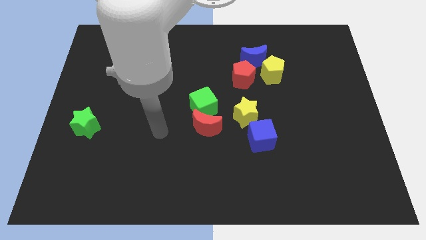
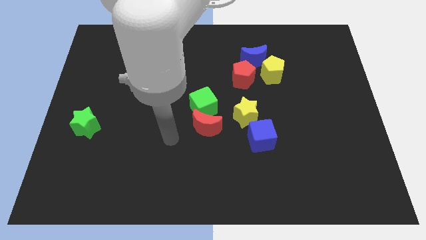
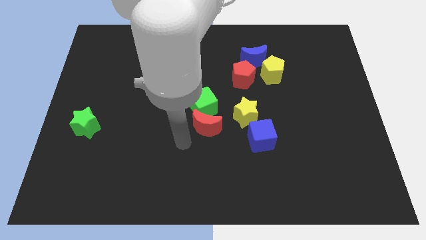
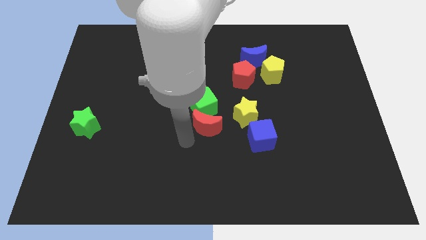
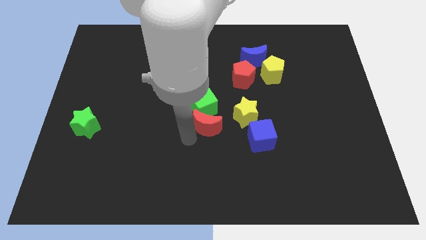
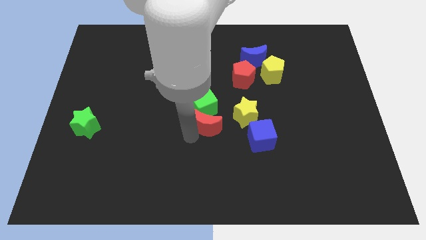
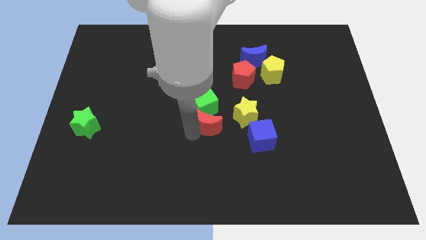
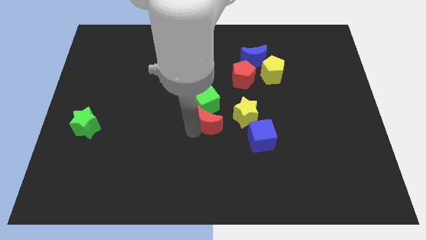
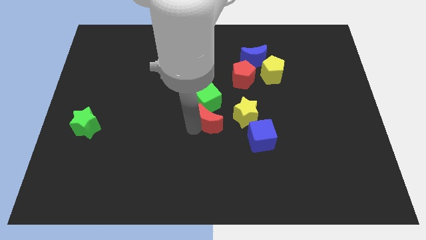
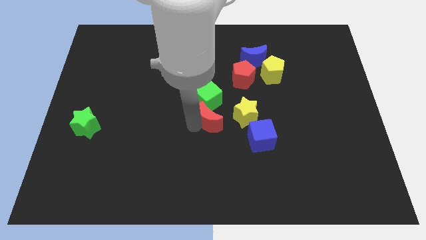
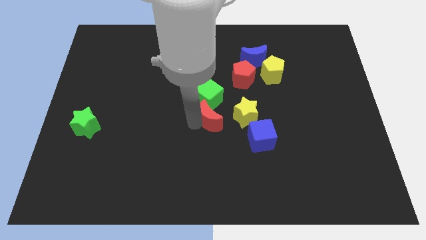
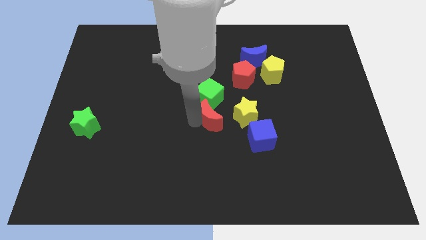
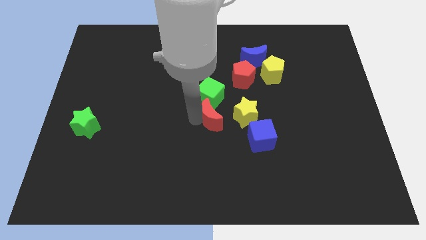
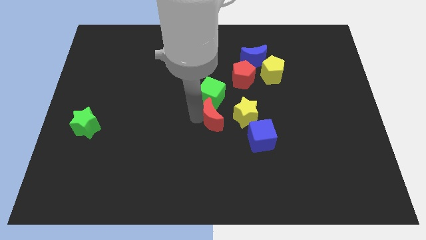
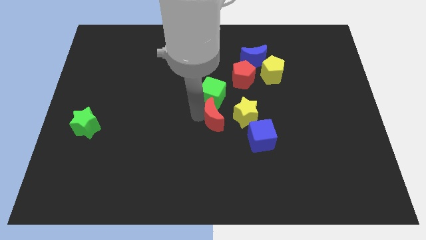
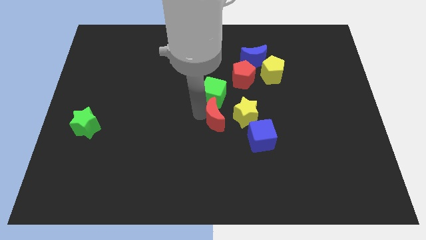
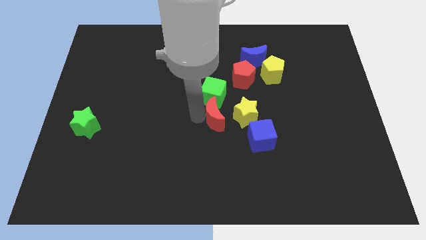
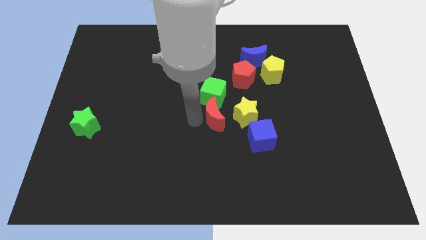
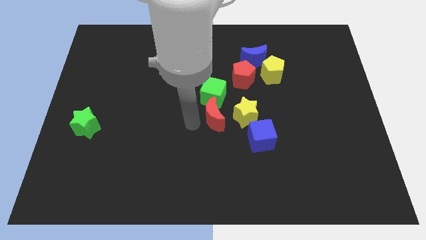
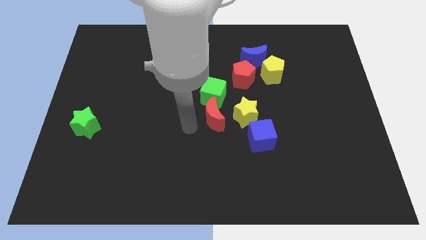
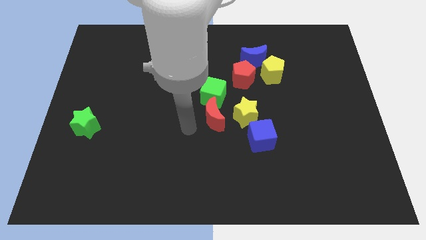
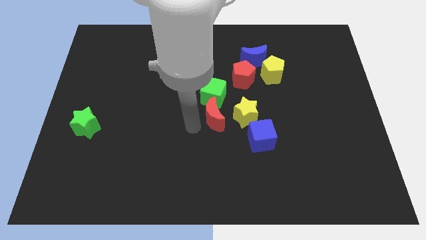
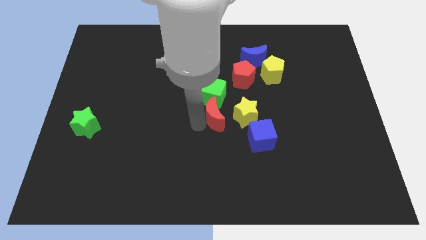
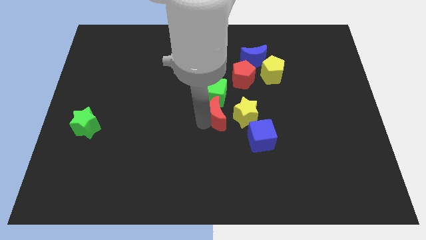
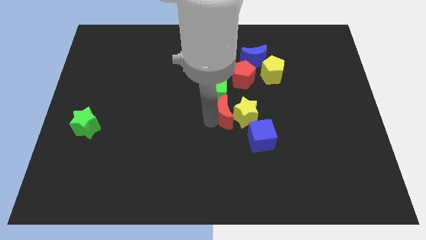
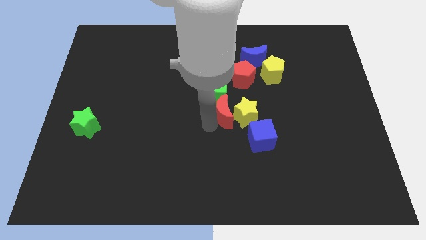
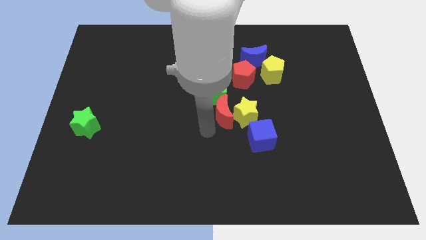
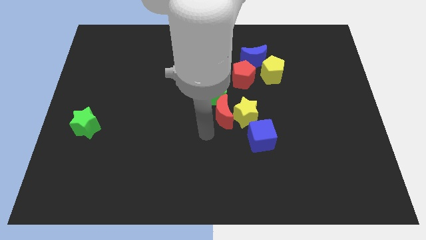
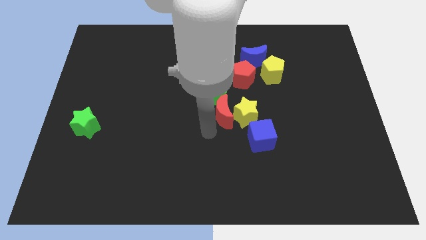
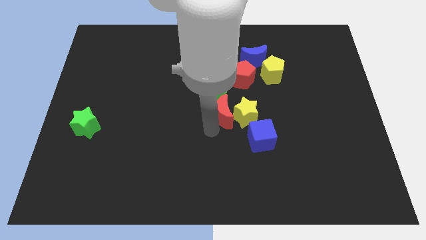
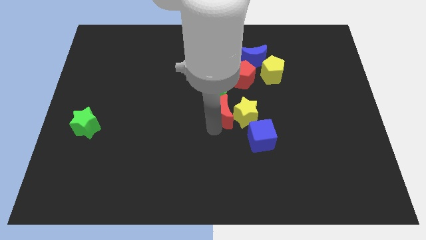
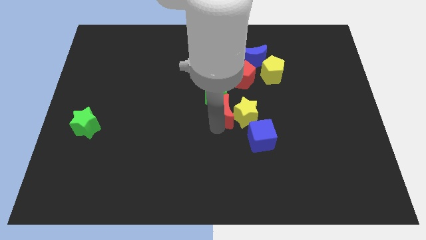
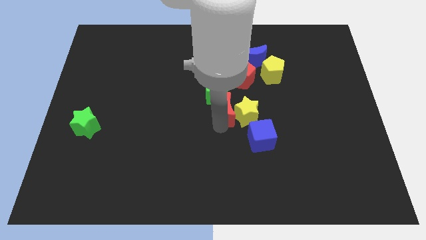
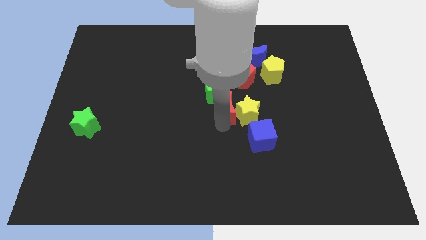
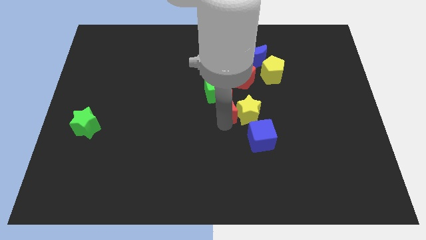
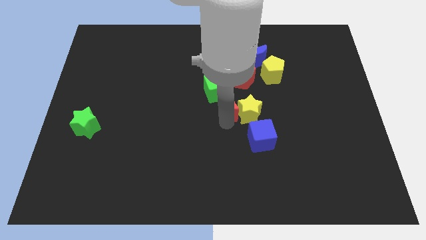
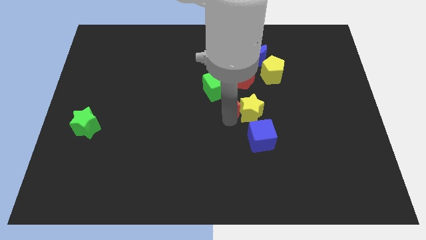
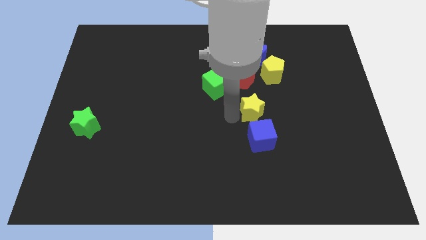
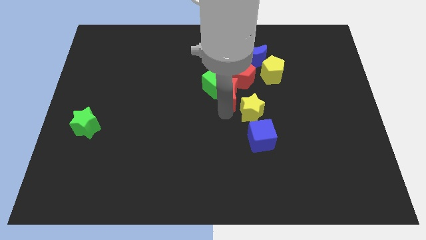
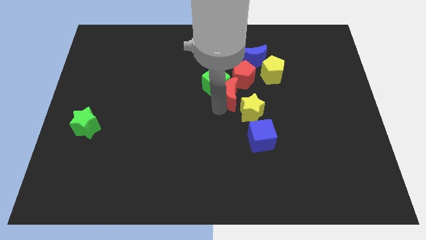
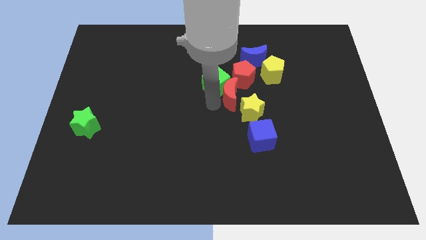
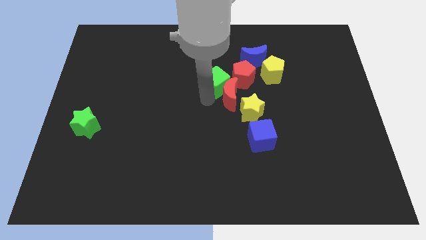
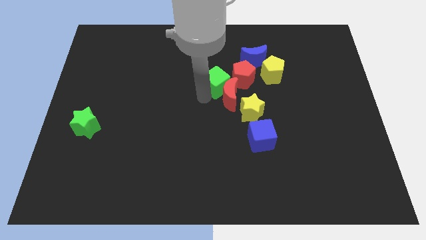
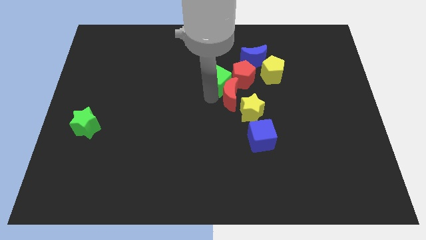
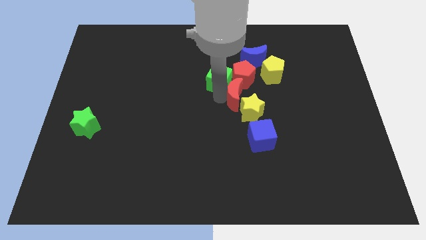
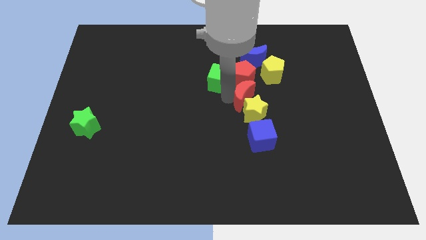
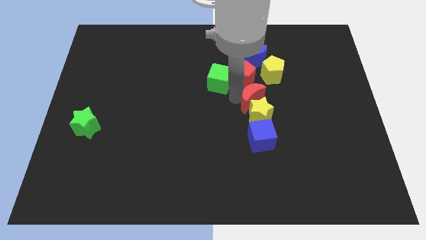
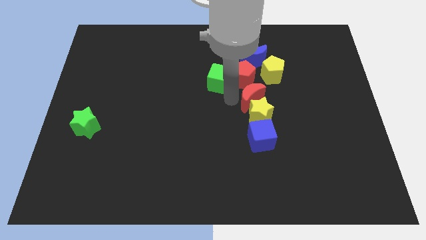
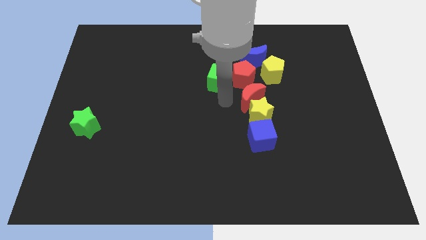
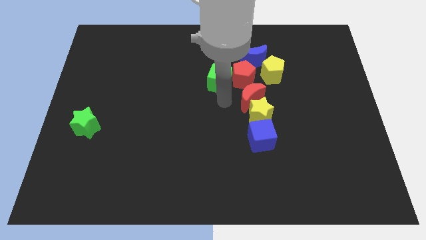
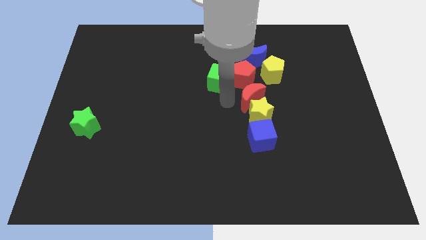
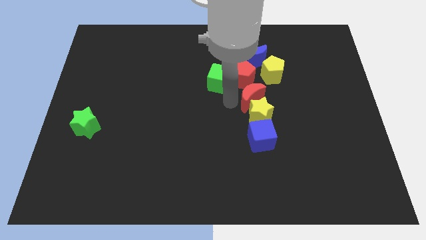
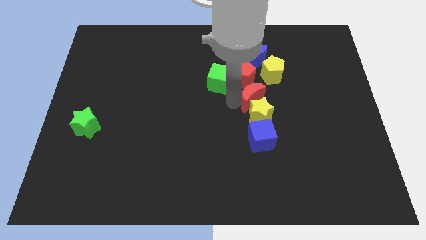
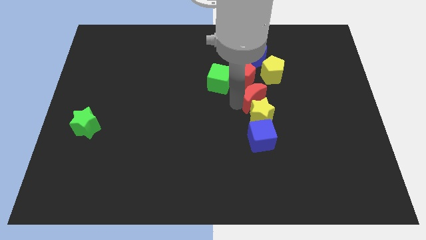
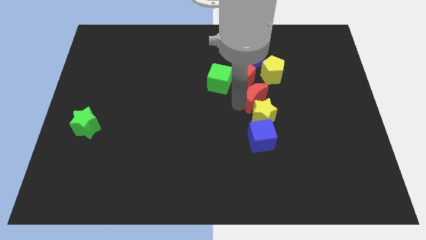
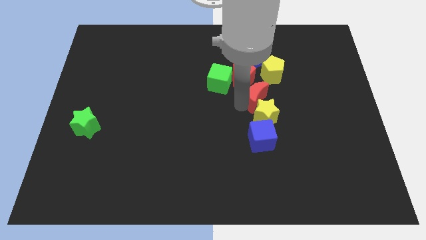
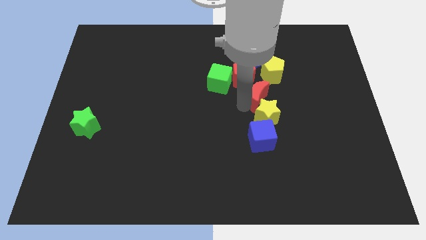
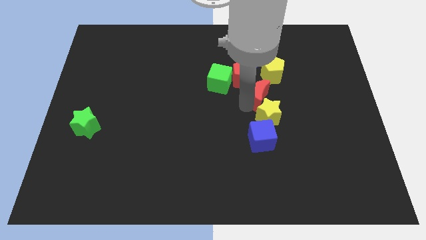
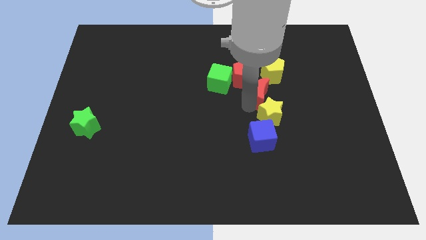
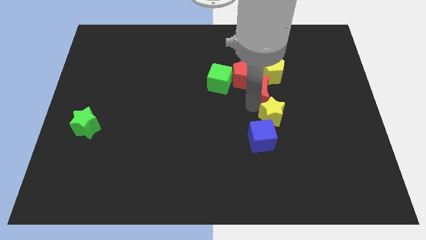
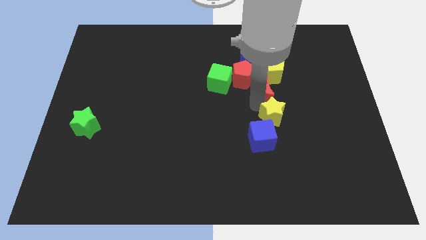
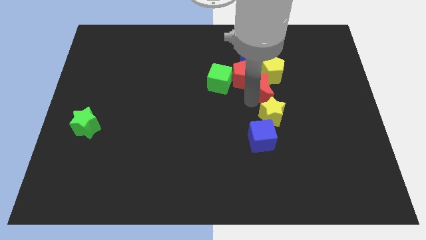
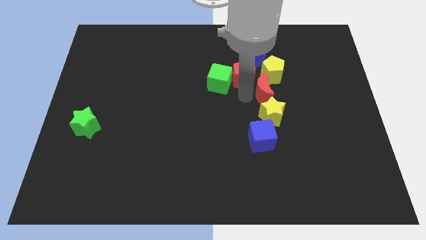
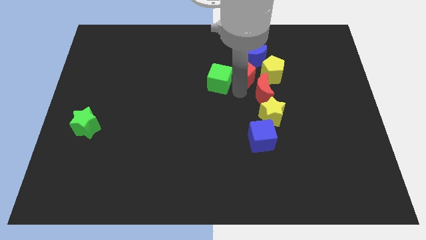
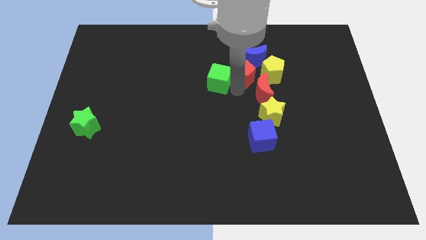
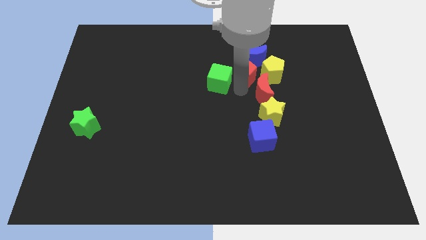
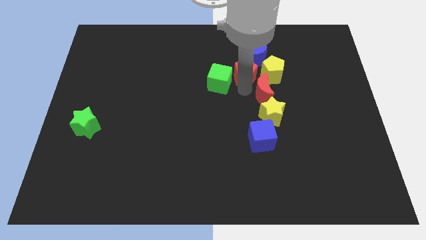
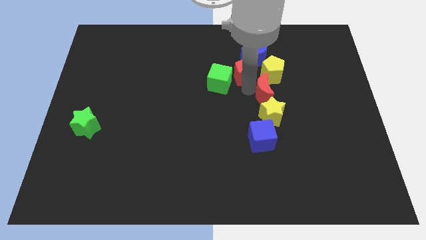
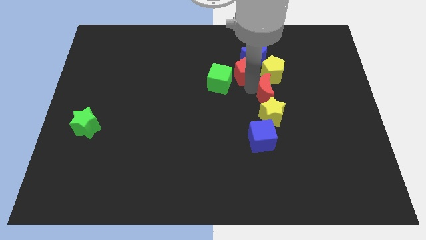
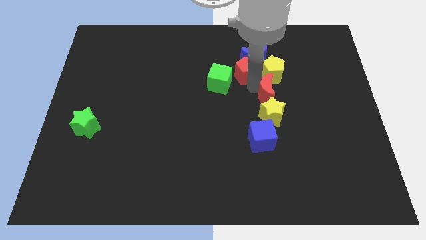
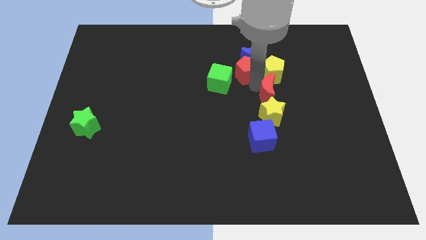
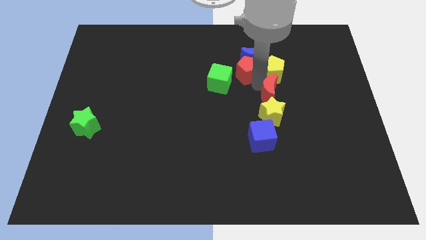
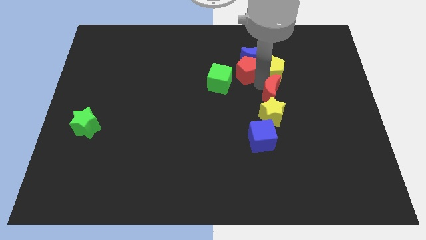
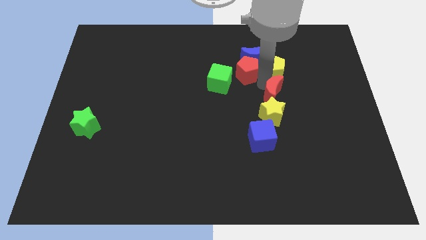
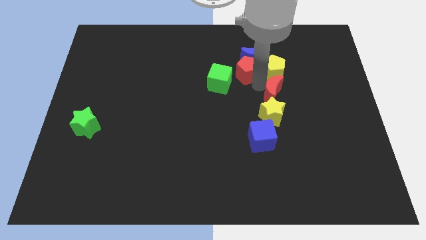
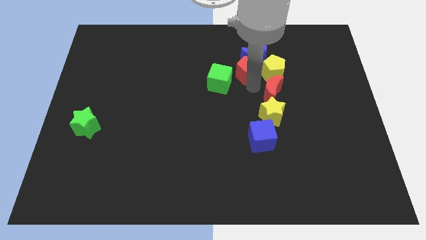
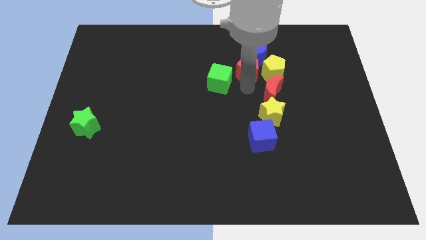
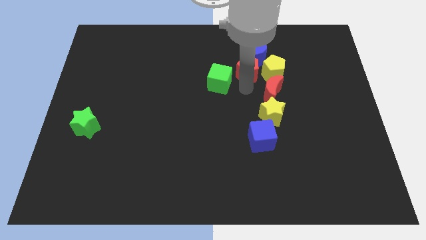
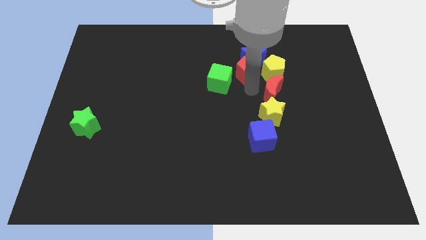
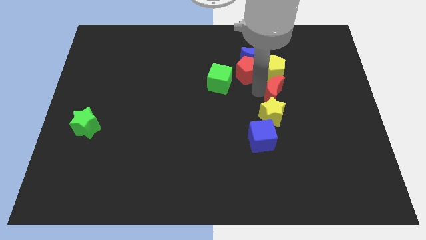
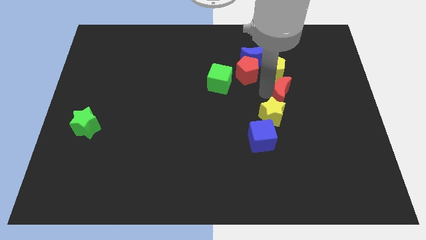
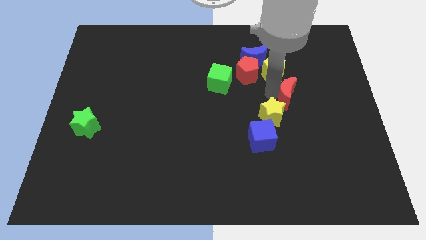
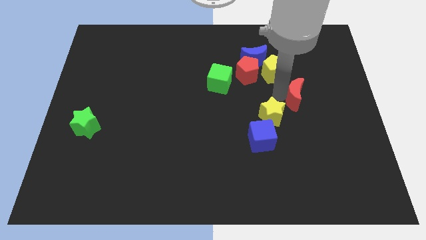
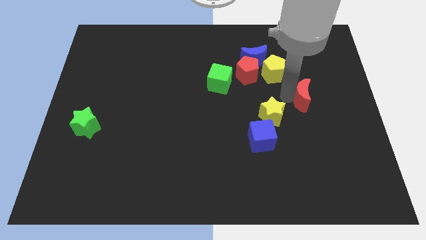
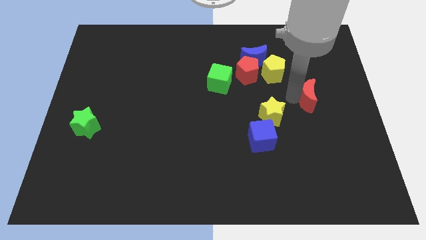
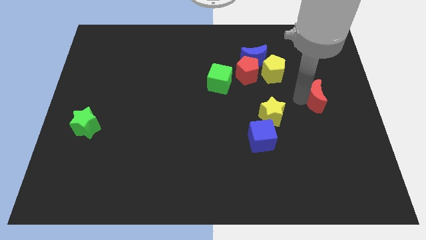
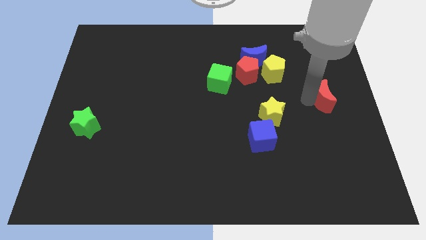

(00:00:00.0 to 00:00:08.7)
slide the red moon to the right side
